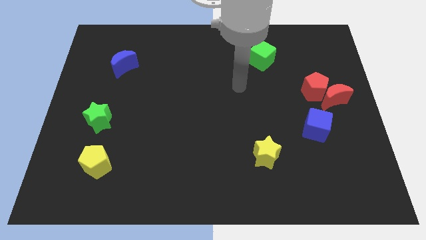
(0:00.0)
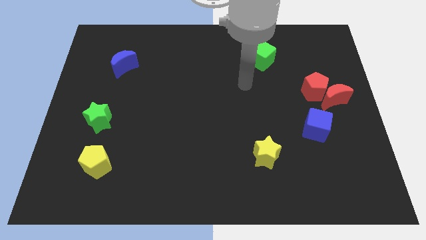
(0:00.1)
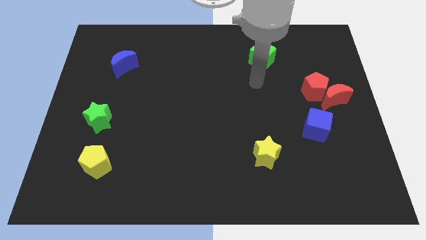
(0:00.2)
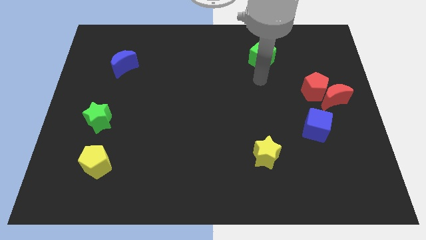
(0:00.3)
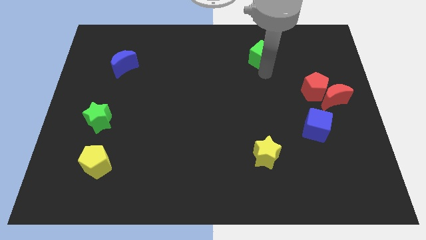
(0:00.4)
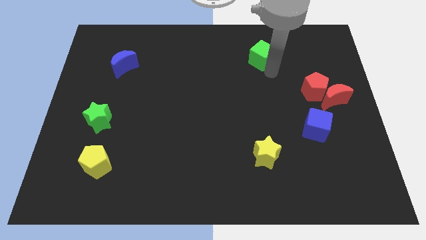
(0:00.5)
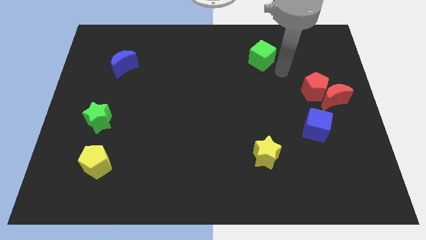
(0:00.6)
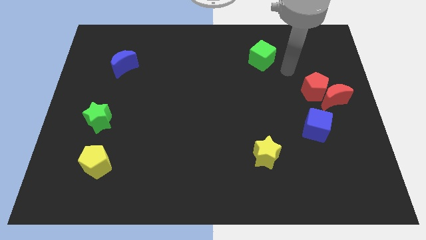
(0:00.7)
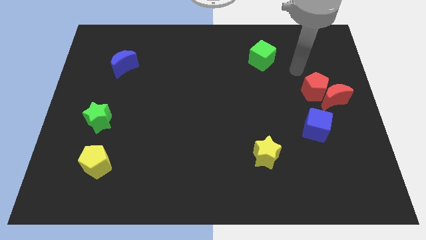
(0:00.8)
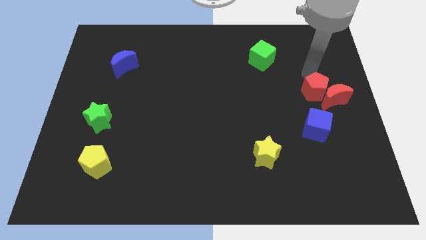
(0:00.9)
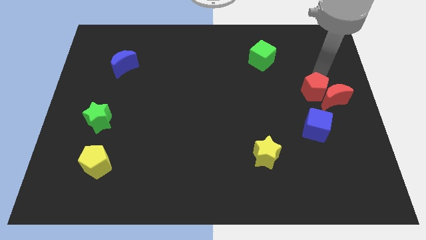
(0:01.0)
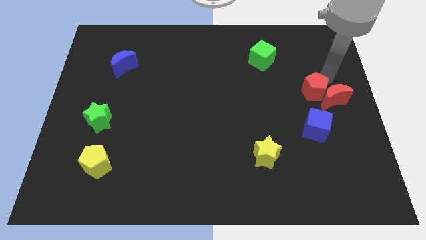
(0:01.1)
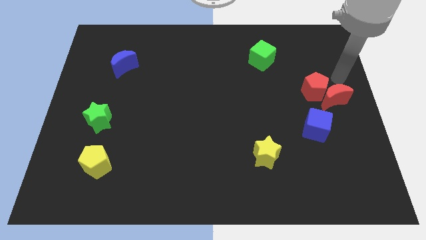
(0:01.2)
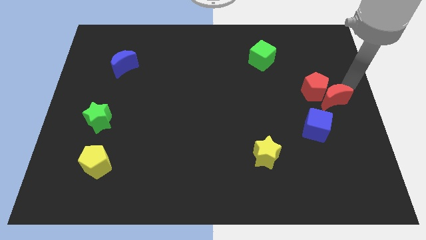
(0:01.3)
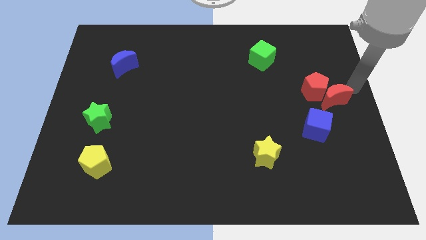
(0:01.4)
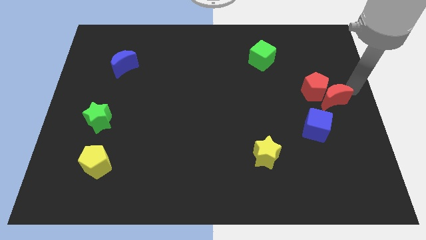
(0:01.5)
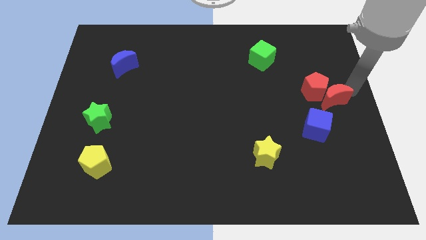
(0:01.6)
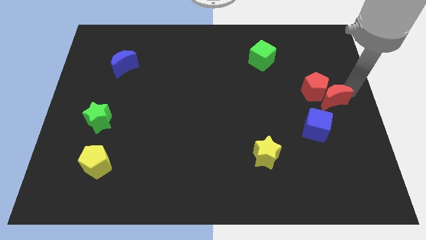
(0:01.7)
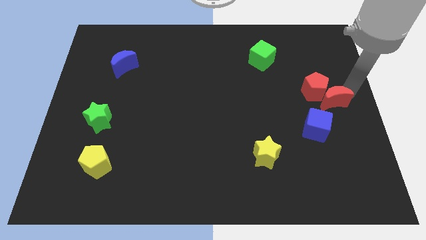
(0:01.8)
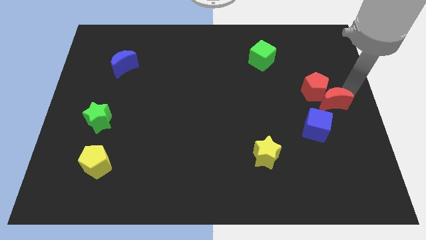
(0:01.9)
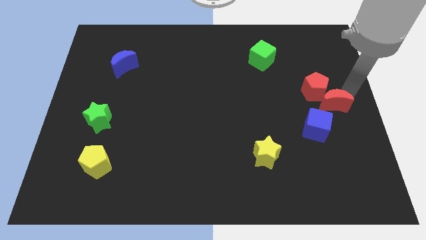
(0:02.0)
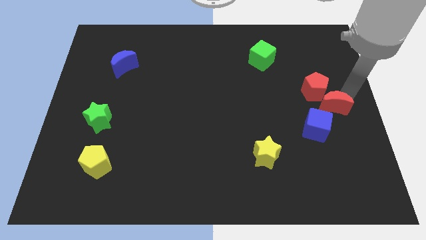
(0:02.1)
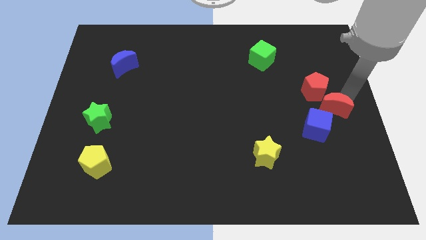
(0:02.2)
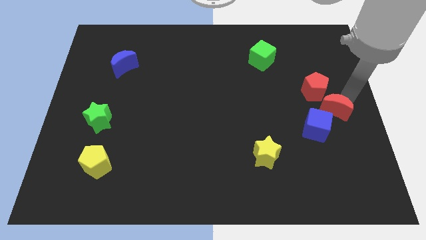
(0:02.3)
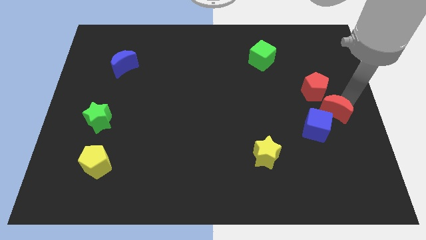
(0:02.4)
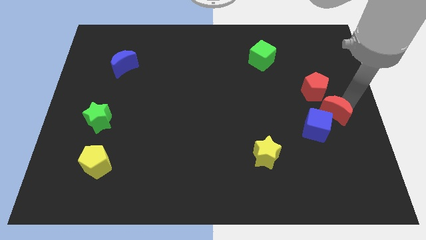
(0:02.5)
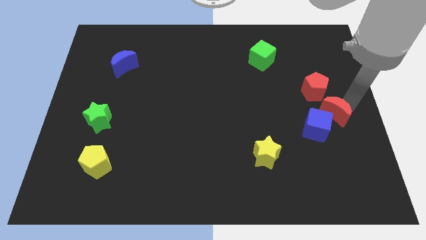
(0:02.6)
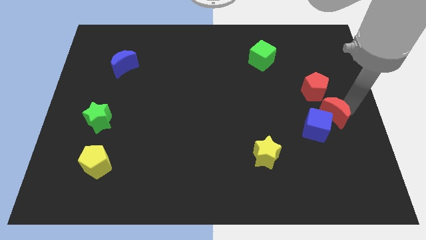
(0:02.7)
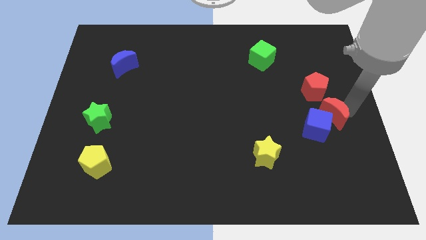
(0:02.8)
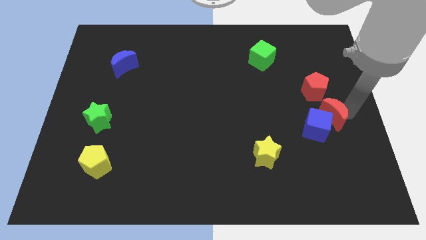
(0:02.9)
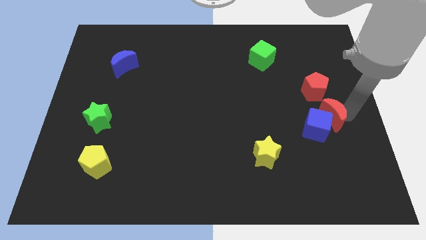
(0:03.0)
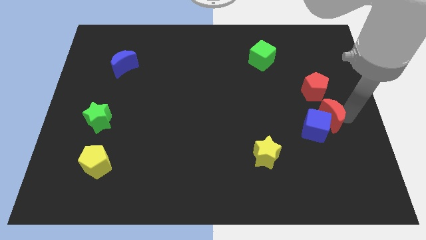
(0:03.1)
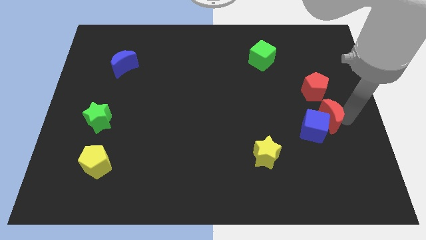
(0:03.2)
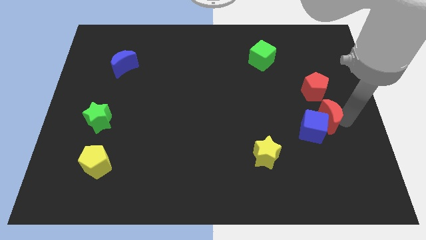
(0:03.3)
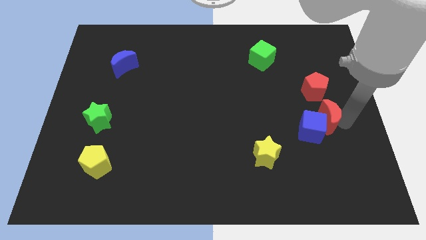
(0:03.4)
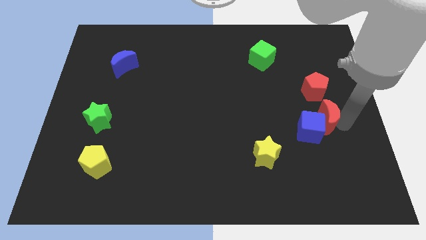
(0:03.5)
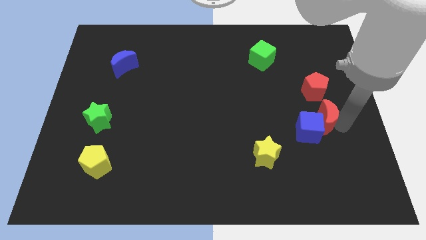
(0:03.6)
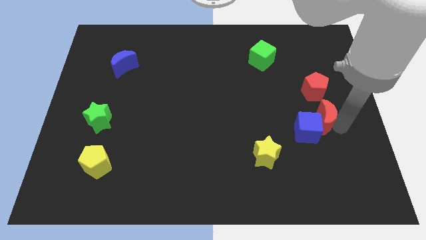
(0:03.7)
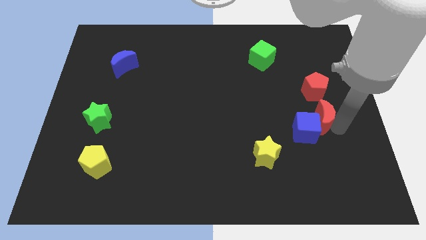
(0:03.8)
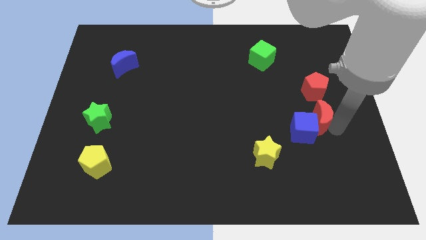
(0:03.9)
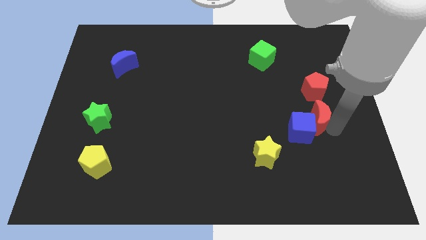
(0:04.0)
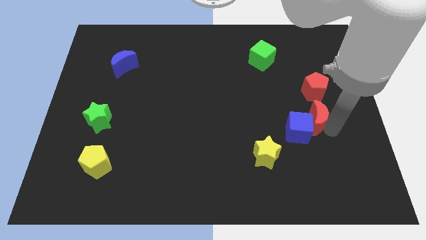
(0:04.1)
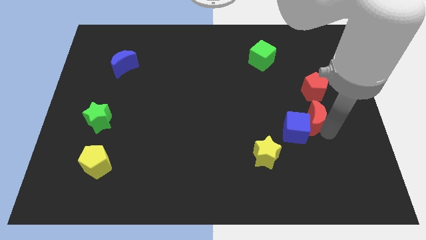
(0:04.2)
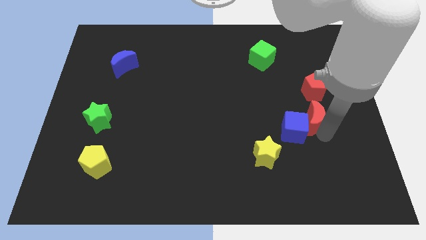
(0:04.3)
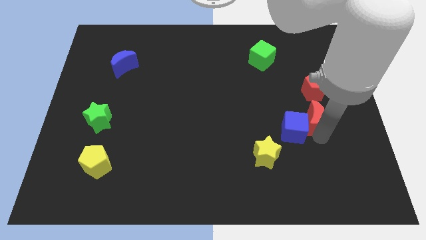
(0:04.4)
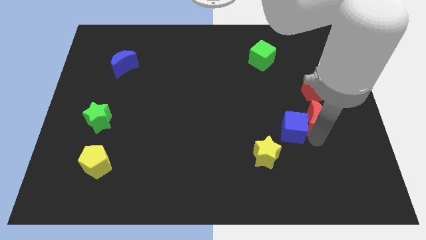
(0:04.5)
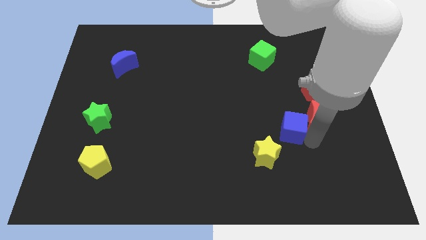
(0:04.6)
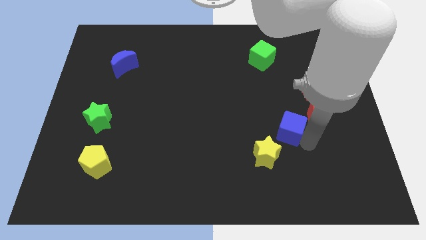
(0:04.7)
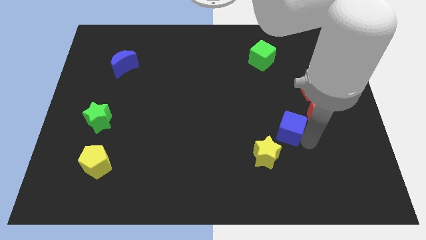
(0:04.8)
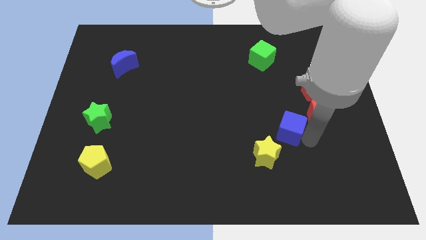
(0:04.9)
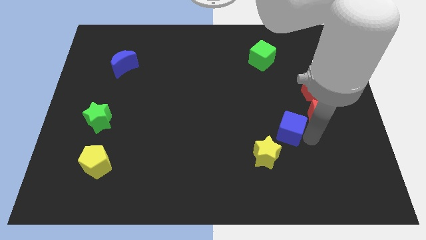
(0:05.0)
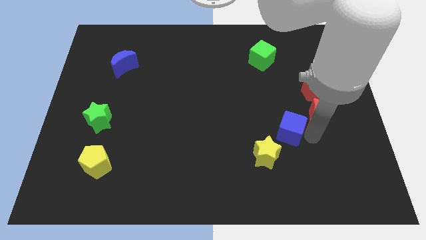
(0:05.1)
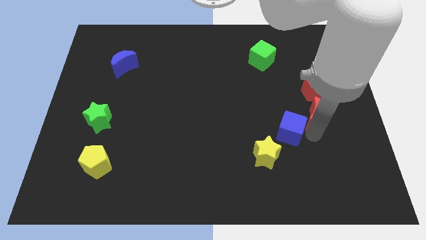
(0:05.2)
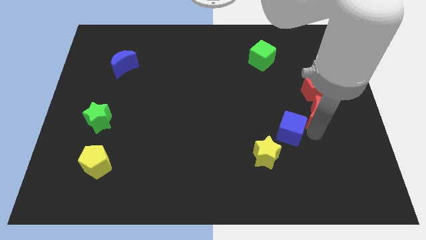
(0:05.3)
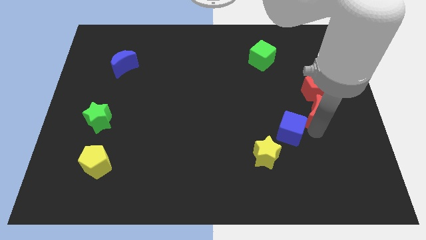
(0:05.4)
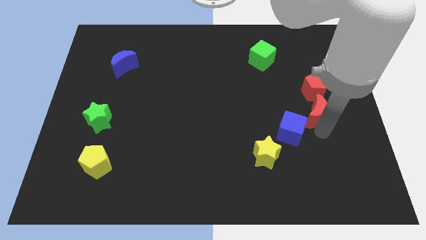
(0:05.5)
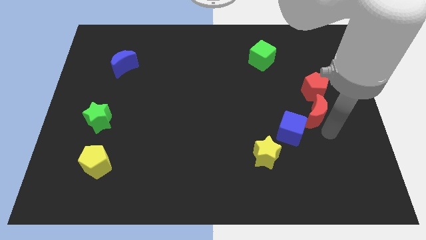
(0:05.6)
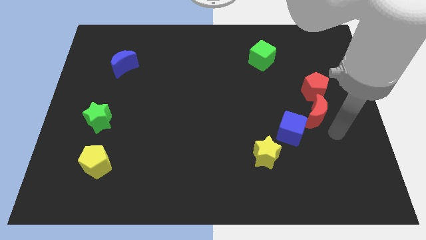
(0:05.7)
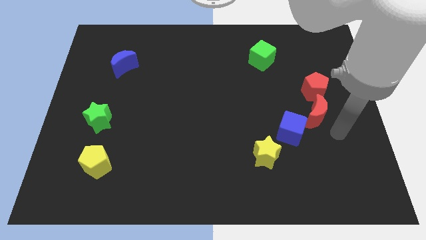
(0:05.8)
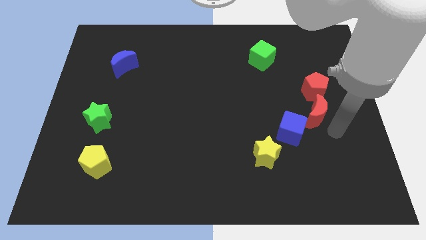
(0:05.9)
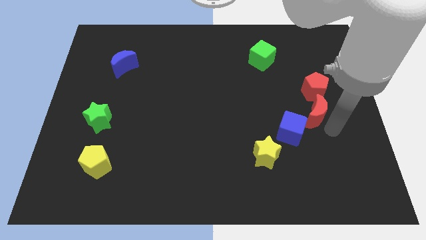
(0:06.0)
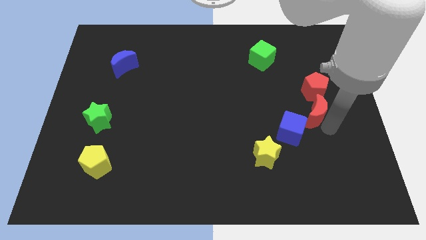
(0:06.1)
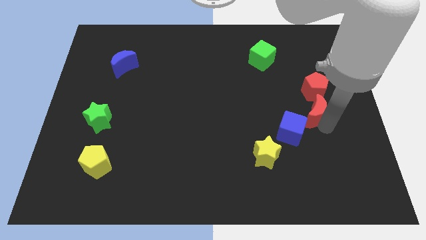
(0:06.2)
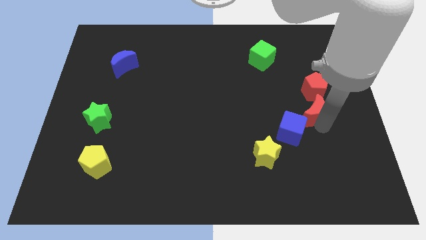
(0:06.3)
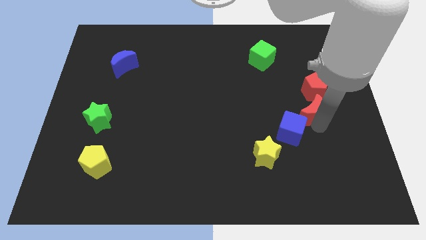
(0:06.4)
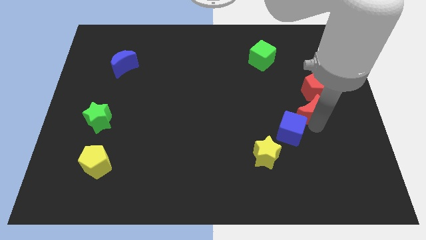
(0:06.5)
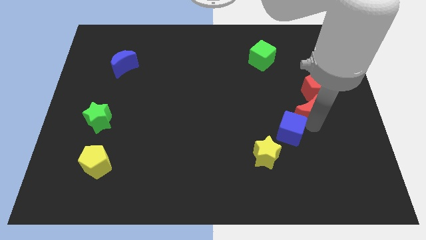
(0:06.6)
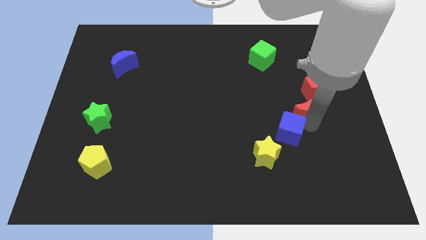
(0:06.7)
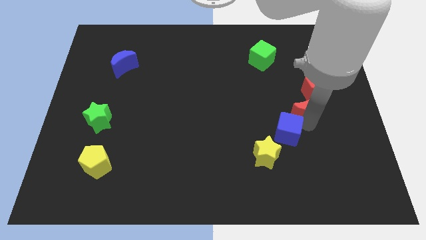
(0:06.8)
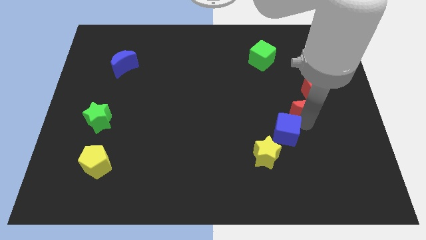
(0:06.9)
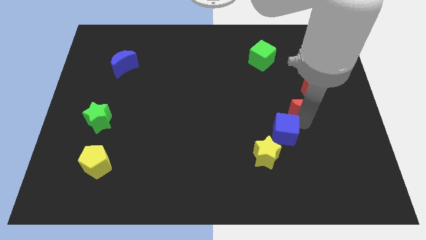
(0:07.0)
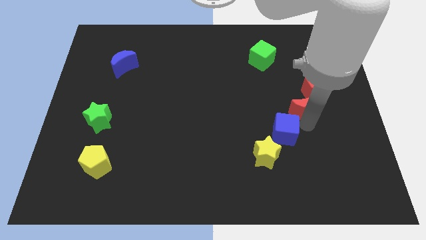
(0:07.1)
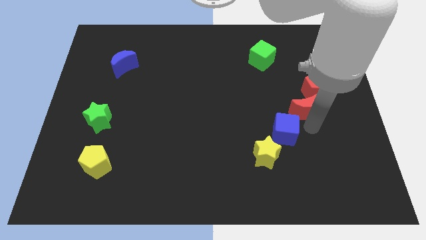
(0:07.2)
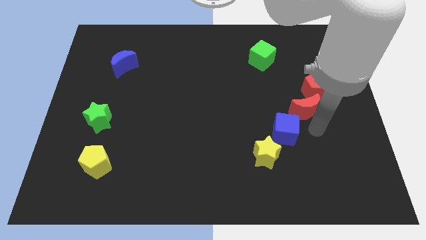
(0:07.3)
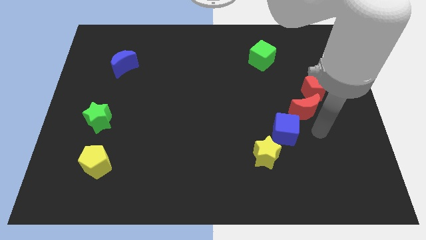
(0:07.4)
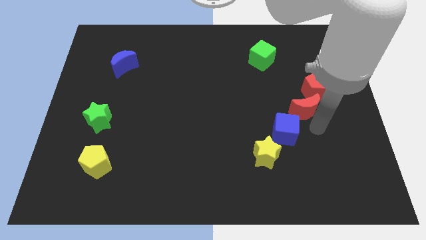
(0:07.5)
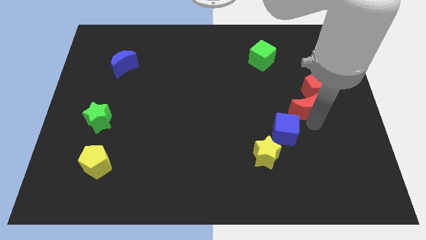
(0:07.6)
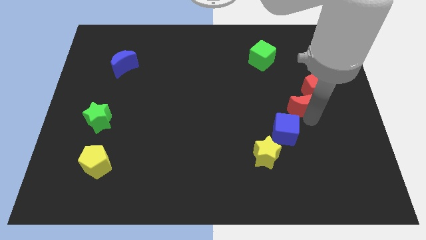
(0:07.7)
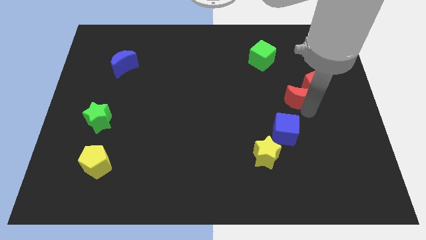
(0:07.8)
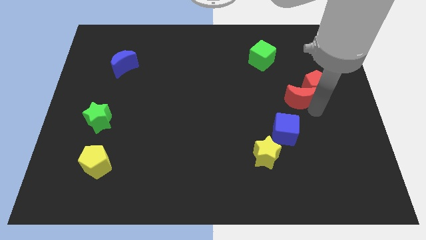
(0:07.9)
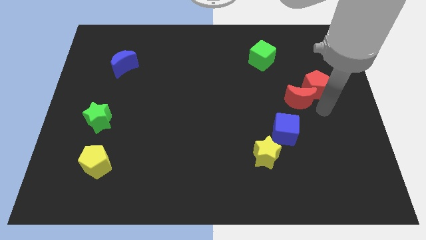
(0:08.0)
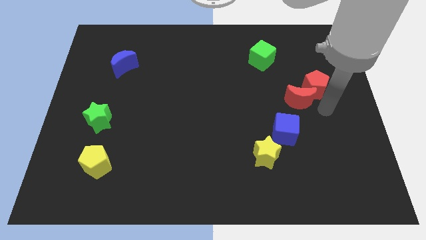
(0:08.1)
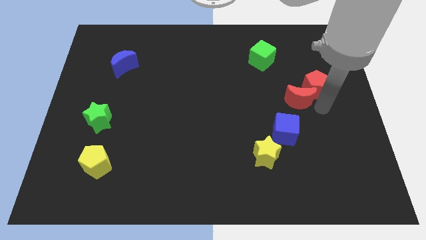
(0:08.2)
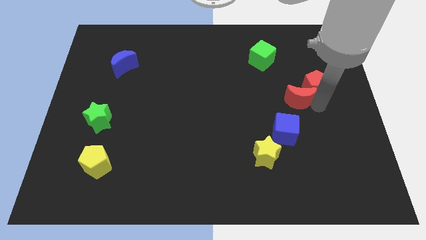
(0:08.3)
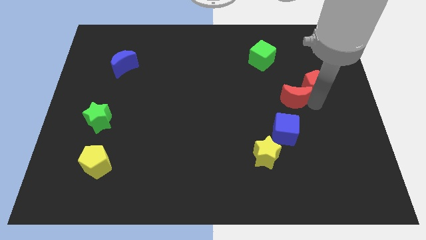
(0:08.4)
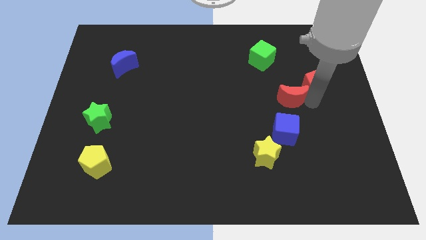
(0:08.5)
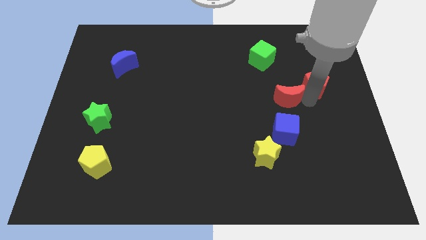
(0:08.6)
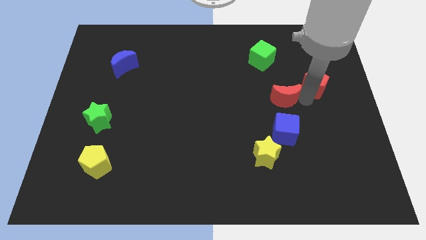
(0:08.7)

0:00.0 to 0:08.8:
slide the red moon to the bottom side of the green cube
